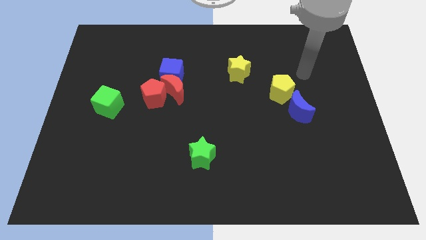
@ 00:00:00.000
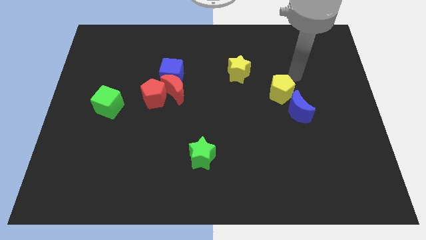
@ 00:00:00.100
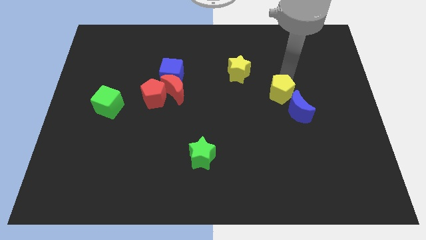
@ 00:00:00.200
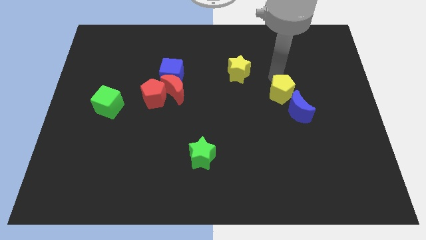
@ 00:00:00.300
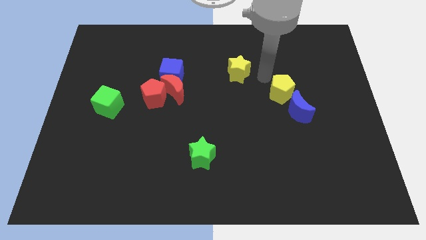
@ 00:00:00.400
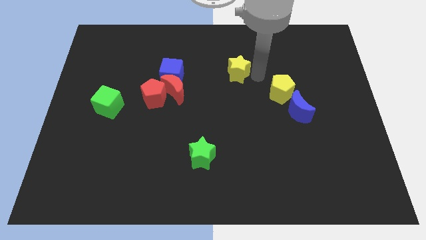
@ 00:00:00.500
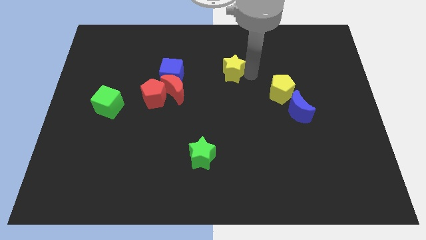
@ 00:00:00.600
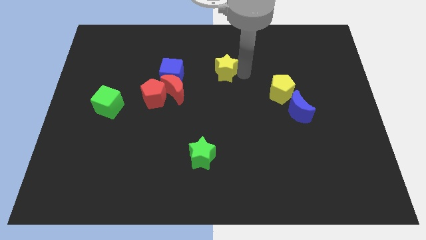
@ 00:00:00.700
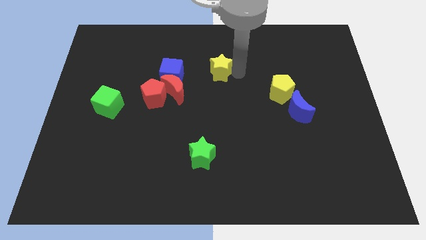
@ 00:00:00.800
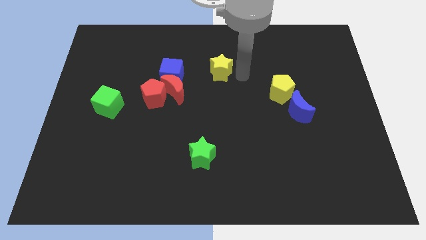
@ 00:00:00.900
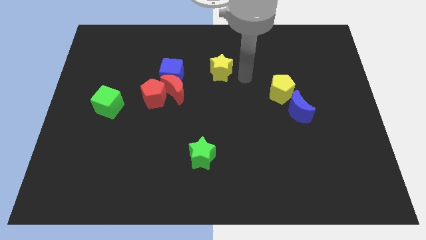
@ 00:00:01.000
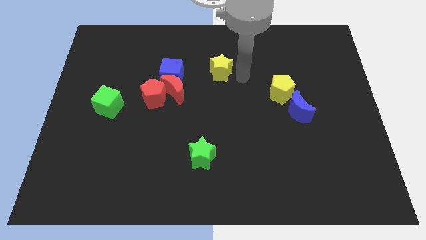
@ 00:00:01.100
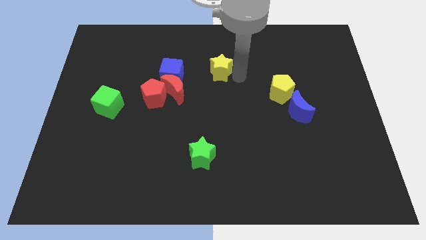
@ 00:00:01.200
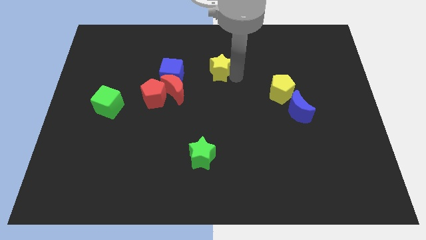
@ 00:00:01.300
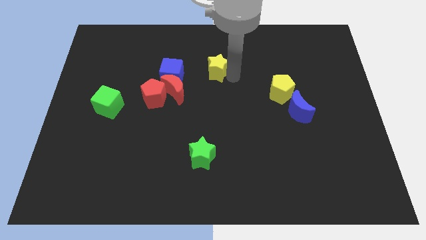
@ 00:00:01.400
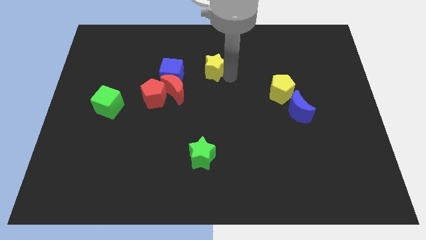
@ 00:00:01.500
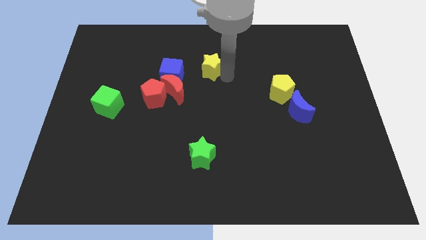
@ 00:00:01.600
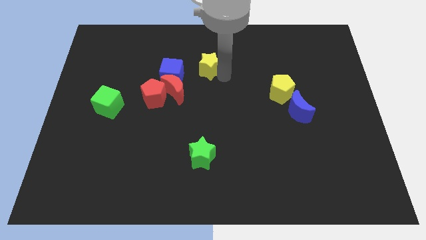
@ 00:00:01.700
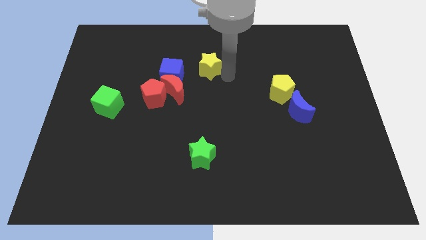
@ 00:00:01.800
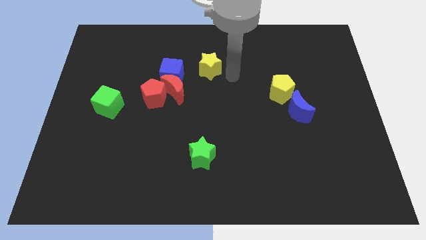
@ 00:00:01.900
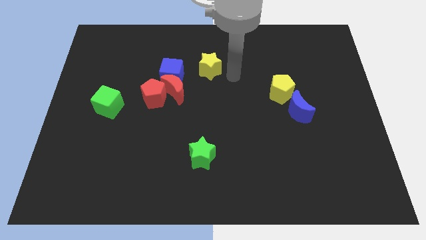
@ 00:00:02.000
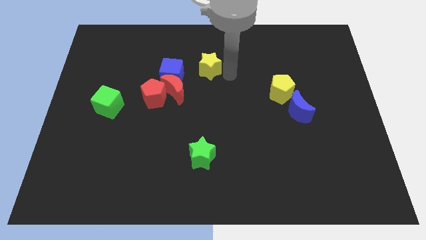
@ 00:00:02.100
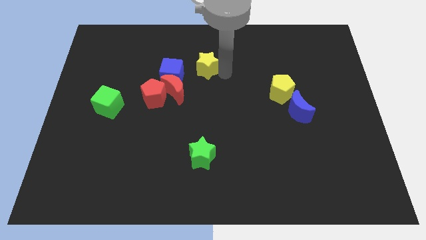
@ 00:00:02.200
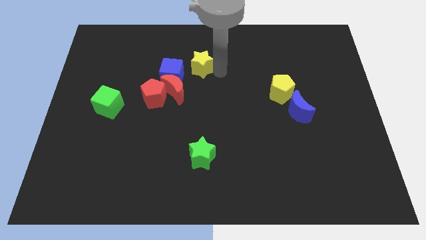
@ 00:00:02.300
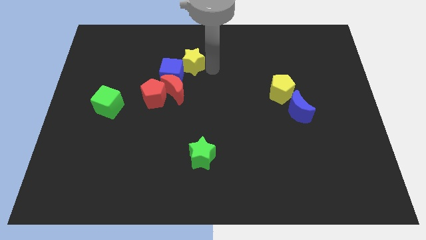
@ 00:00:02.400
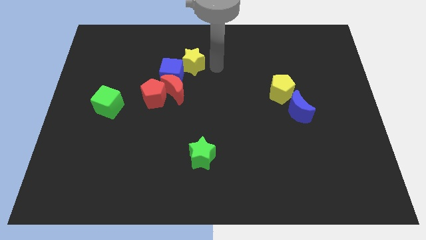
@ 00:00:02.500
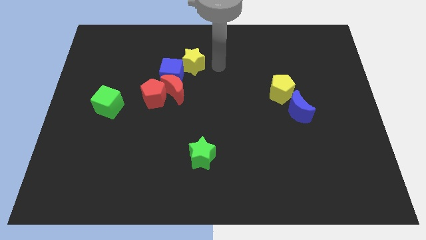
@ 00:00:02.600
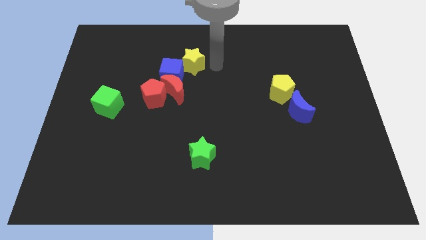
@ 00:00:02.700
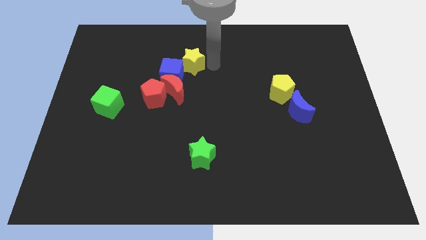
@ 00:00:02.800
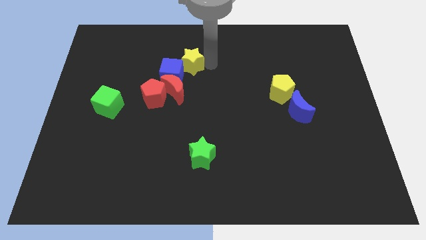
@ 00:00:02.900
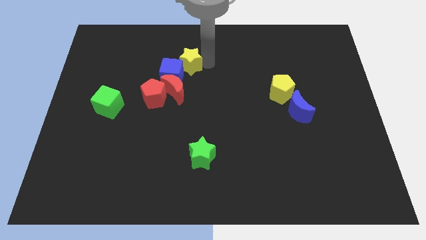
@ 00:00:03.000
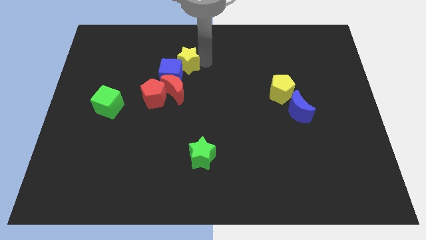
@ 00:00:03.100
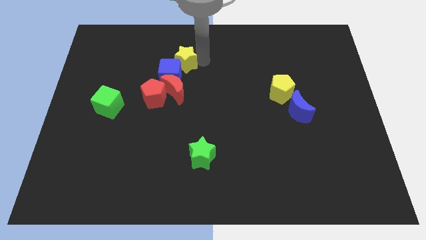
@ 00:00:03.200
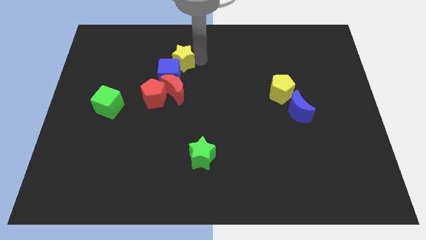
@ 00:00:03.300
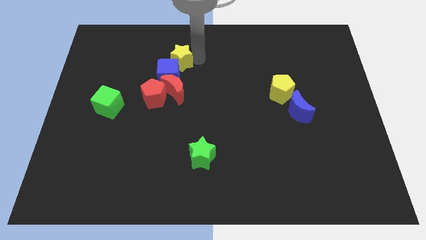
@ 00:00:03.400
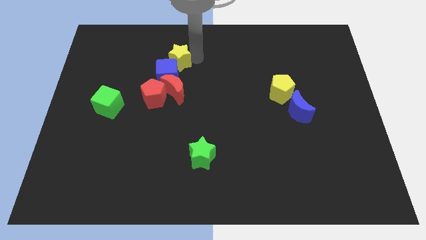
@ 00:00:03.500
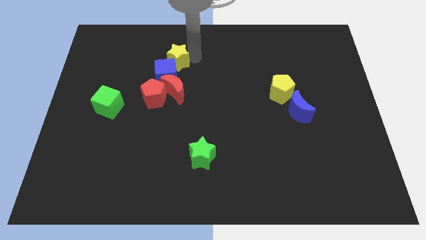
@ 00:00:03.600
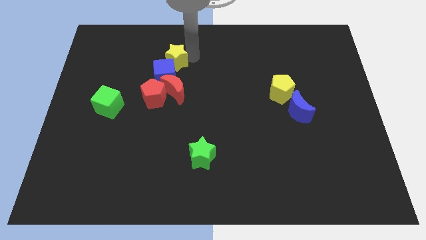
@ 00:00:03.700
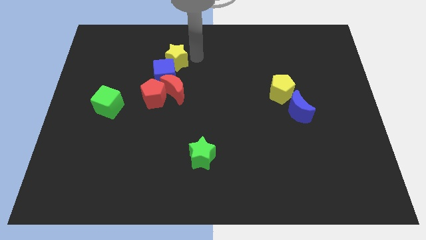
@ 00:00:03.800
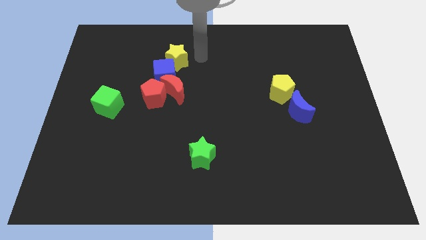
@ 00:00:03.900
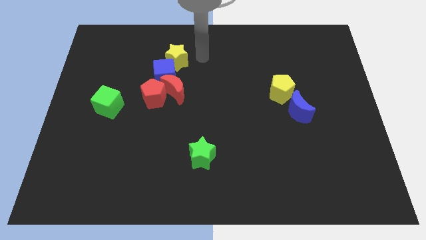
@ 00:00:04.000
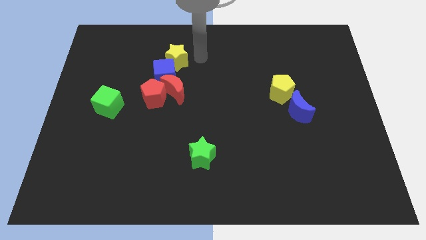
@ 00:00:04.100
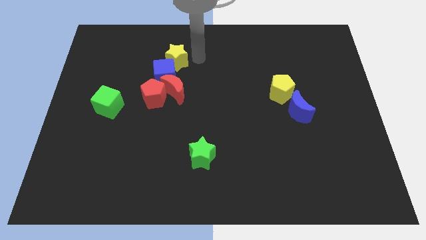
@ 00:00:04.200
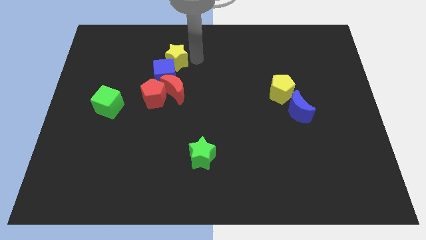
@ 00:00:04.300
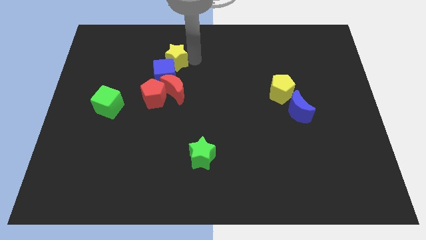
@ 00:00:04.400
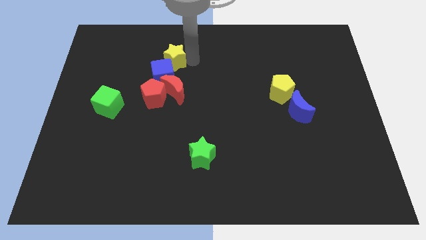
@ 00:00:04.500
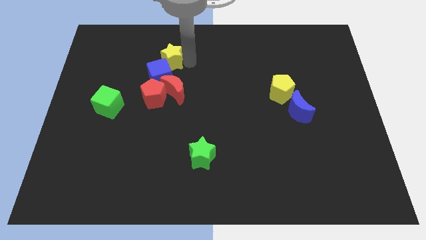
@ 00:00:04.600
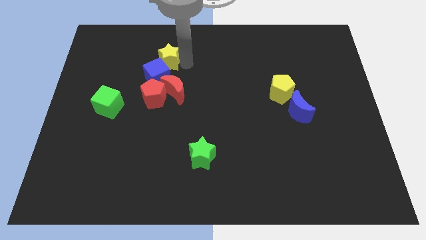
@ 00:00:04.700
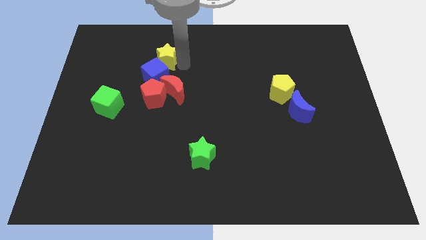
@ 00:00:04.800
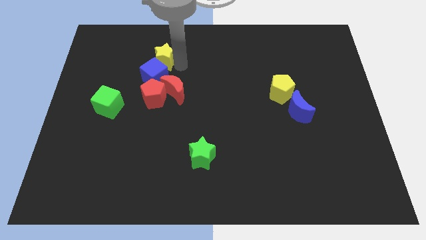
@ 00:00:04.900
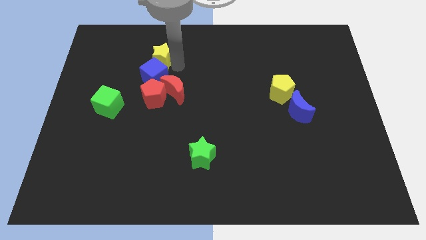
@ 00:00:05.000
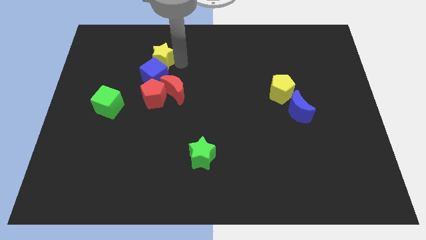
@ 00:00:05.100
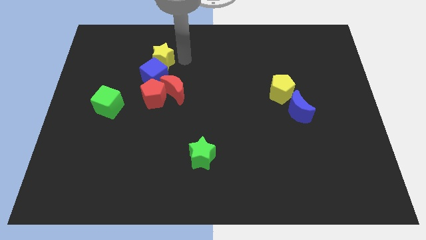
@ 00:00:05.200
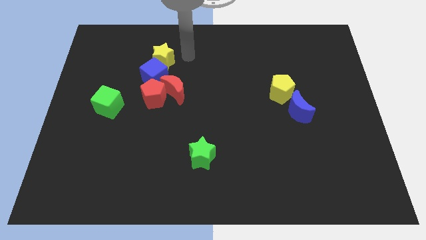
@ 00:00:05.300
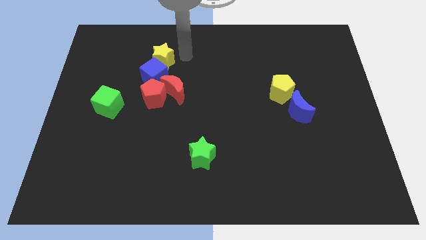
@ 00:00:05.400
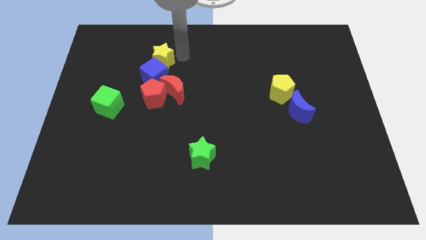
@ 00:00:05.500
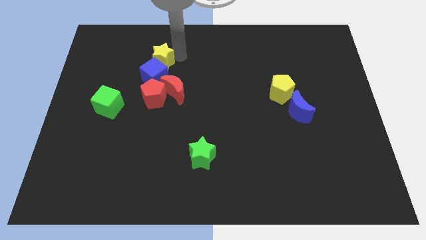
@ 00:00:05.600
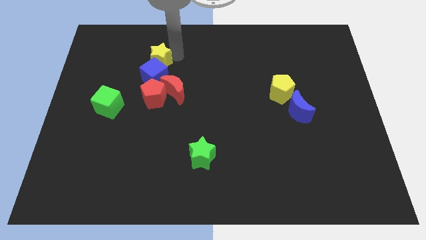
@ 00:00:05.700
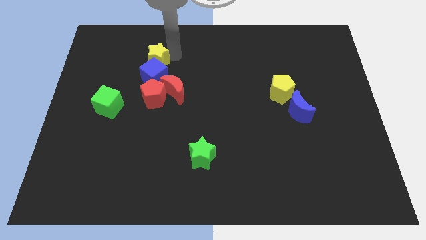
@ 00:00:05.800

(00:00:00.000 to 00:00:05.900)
slide the yellow star left

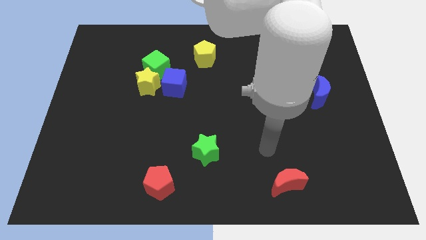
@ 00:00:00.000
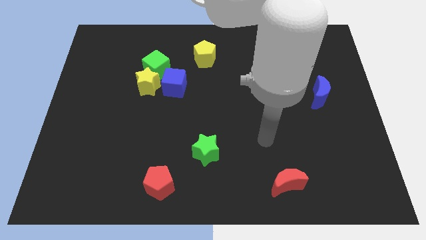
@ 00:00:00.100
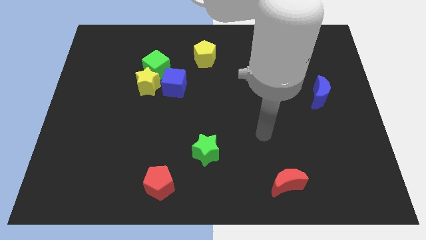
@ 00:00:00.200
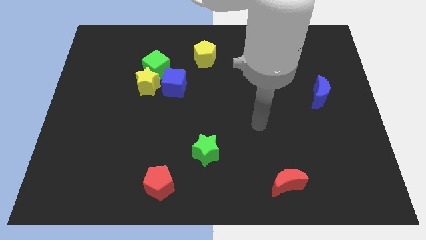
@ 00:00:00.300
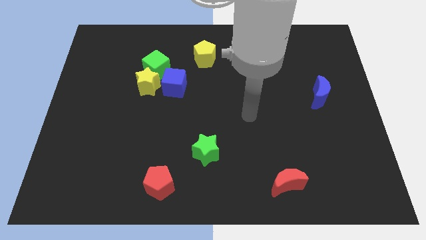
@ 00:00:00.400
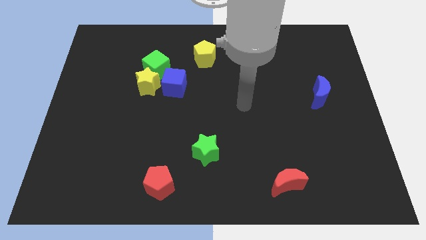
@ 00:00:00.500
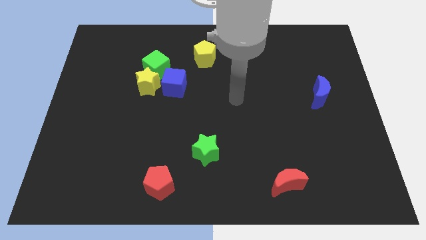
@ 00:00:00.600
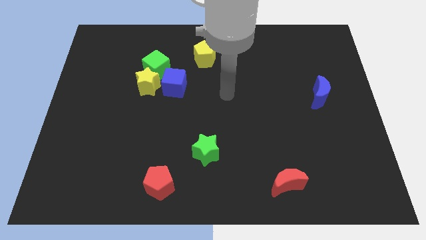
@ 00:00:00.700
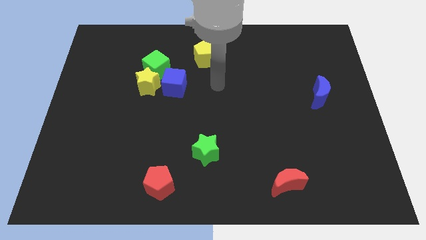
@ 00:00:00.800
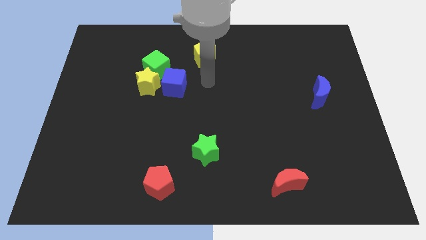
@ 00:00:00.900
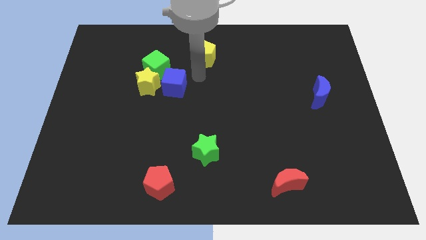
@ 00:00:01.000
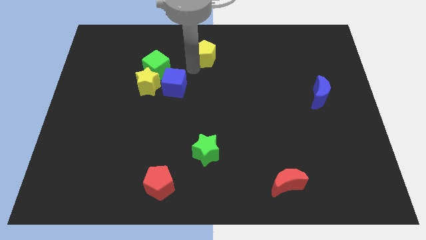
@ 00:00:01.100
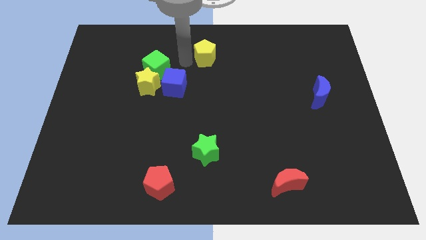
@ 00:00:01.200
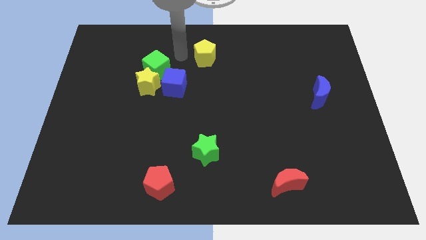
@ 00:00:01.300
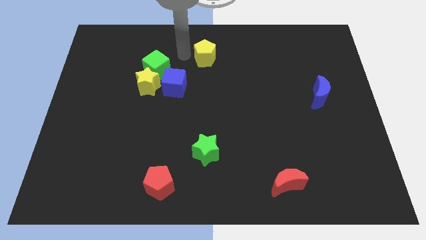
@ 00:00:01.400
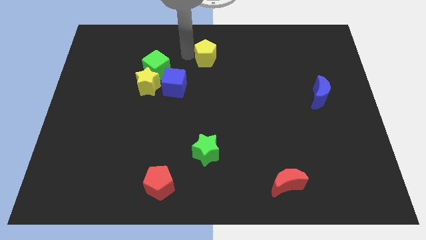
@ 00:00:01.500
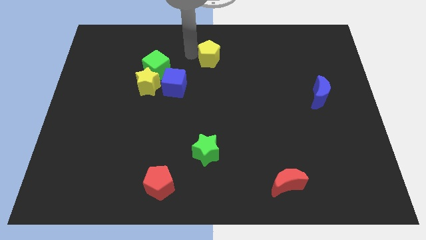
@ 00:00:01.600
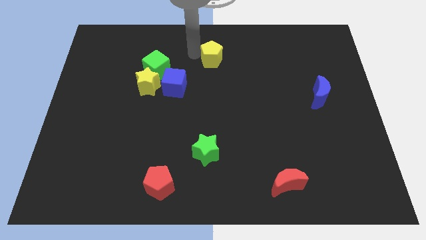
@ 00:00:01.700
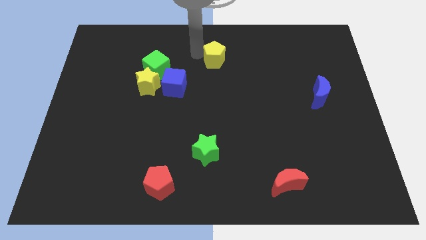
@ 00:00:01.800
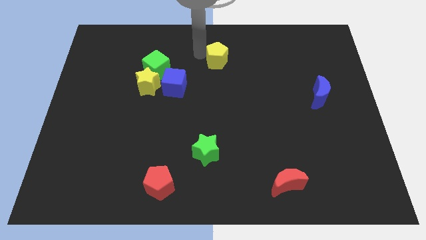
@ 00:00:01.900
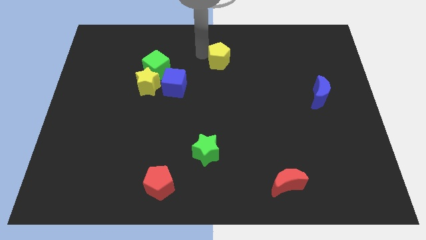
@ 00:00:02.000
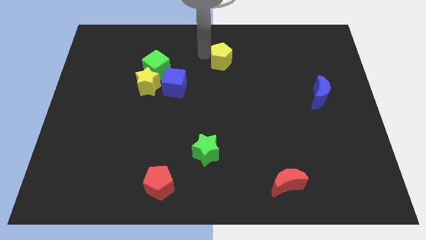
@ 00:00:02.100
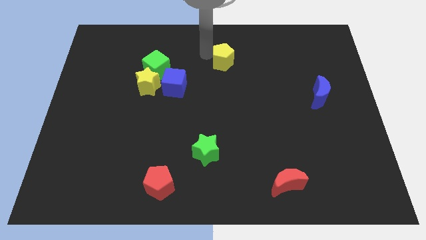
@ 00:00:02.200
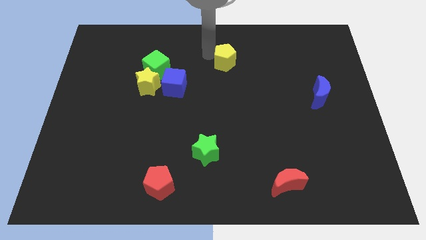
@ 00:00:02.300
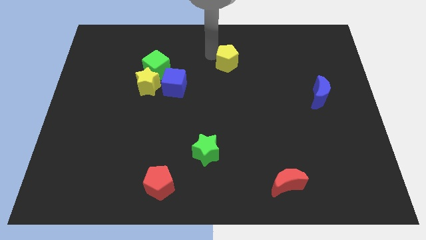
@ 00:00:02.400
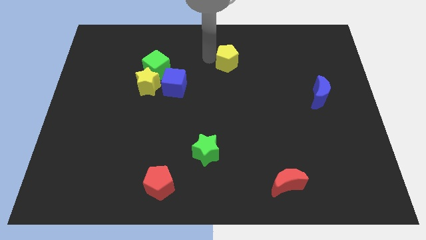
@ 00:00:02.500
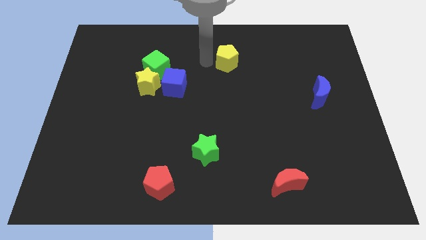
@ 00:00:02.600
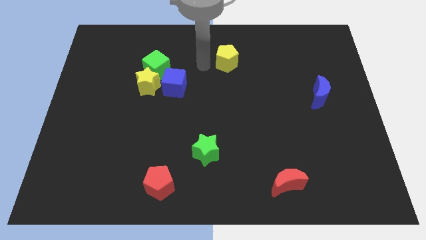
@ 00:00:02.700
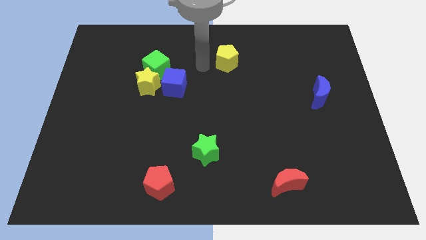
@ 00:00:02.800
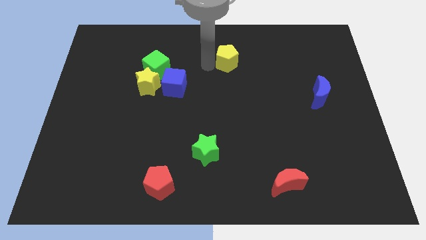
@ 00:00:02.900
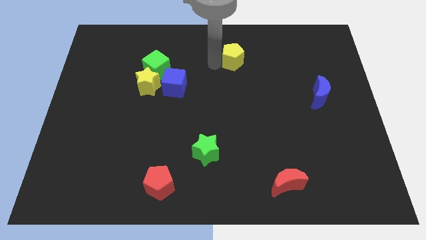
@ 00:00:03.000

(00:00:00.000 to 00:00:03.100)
push the yellow pentagon right a little bit
